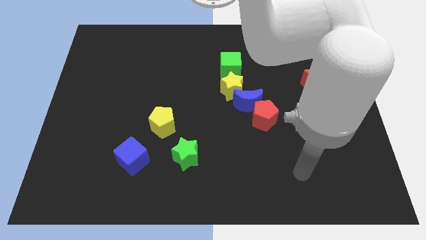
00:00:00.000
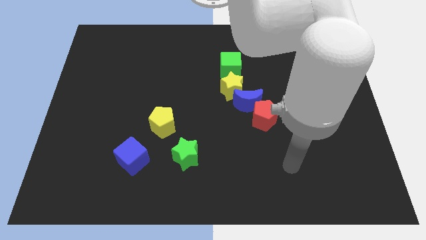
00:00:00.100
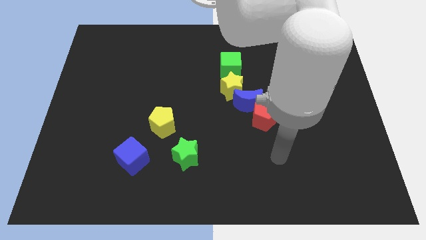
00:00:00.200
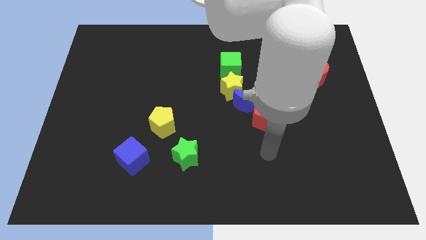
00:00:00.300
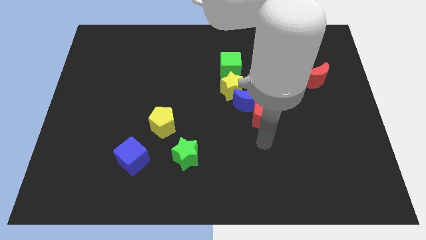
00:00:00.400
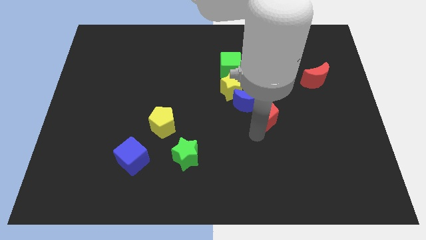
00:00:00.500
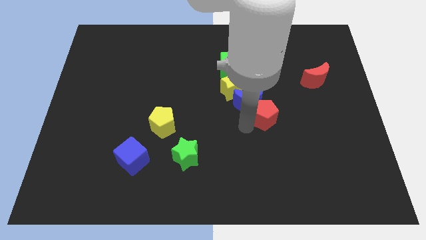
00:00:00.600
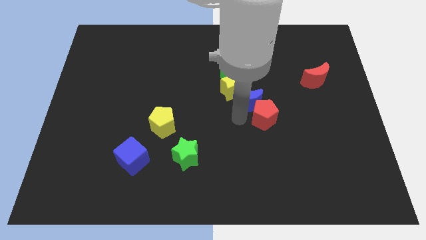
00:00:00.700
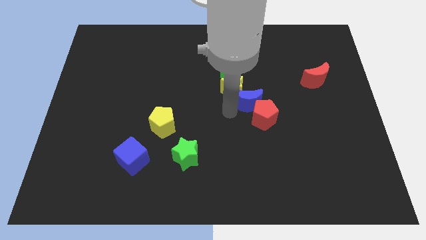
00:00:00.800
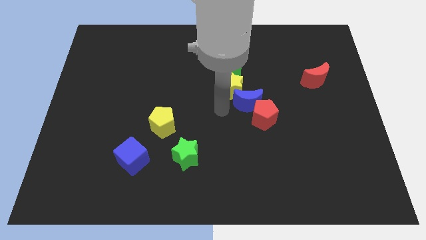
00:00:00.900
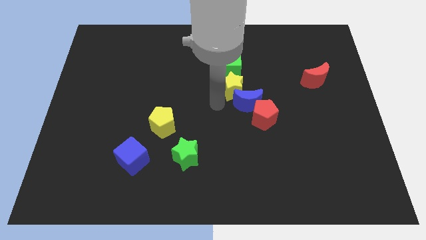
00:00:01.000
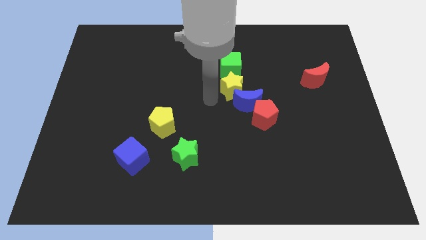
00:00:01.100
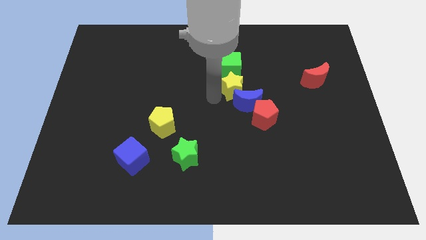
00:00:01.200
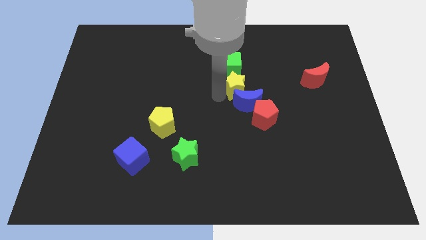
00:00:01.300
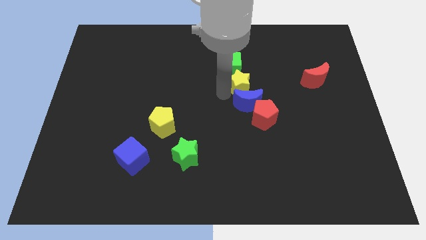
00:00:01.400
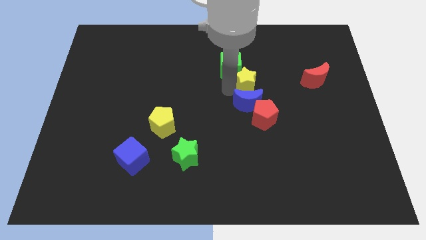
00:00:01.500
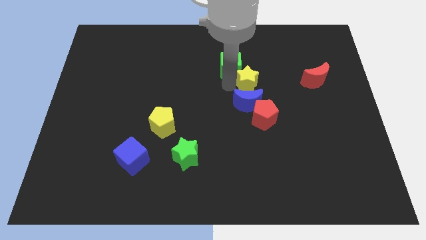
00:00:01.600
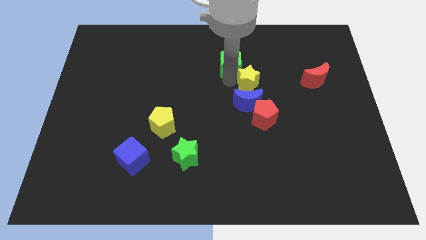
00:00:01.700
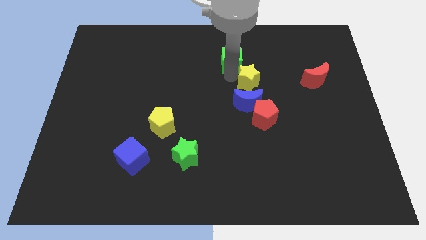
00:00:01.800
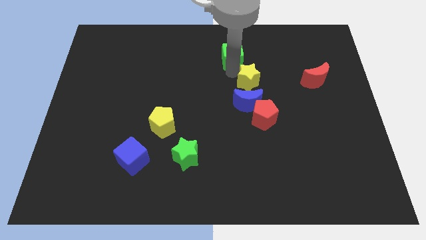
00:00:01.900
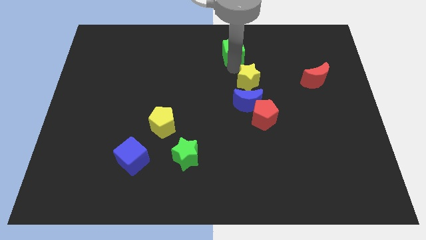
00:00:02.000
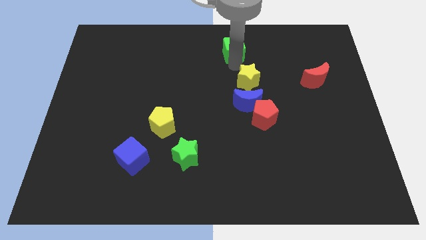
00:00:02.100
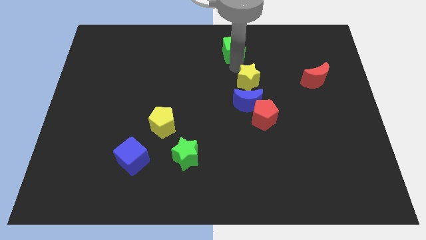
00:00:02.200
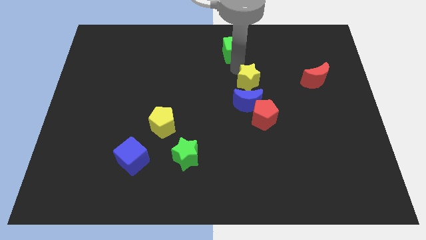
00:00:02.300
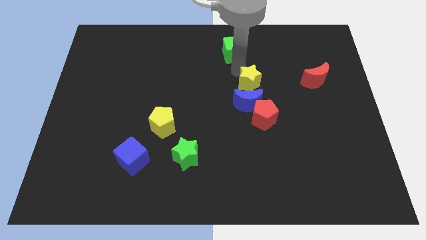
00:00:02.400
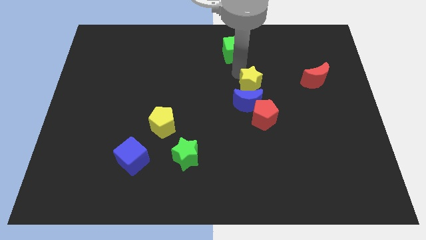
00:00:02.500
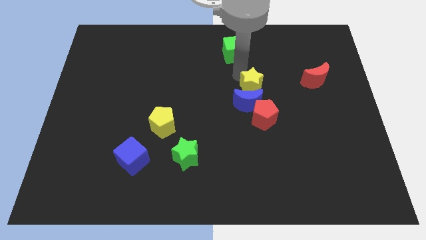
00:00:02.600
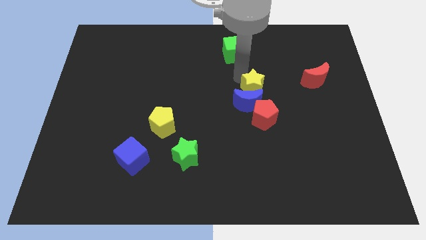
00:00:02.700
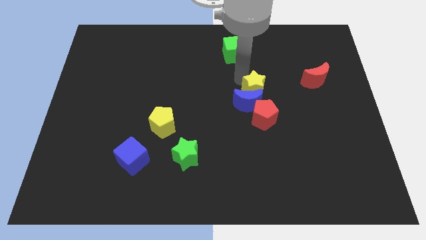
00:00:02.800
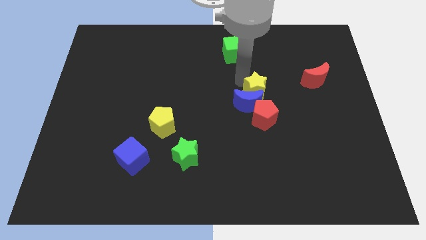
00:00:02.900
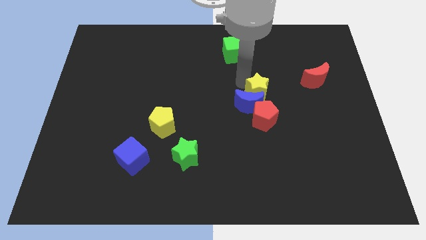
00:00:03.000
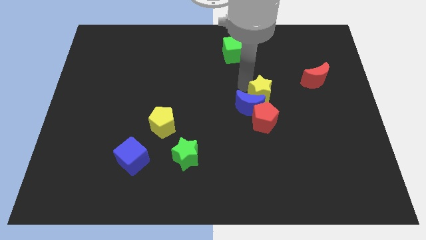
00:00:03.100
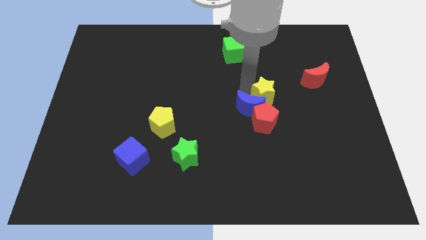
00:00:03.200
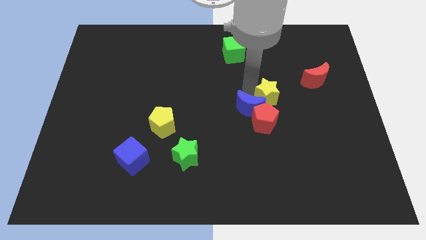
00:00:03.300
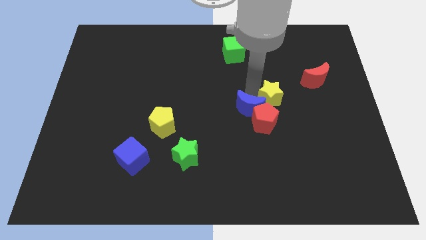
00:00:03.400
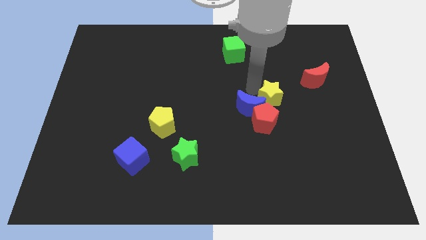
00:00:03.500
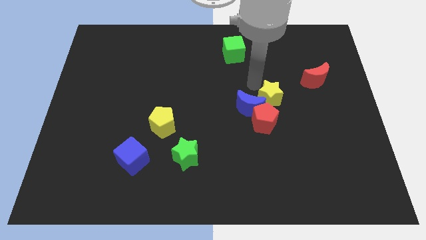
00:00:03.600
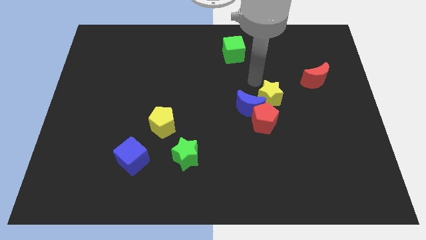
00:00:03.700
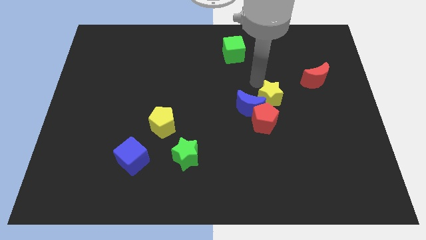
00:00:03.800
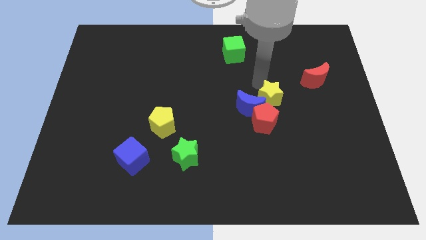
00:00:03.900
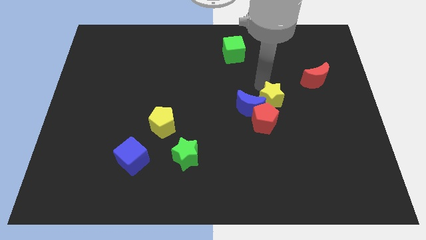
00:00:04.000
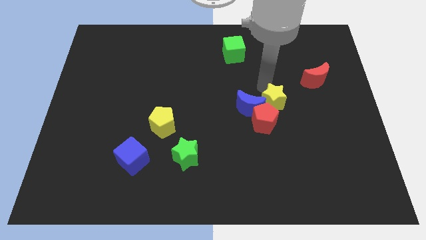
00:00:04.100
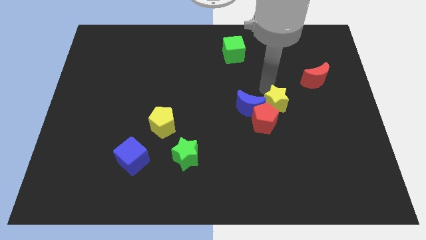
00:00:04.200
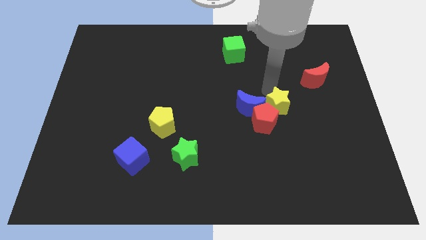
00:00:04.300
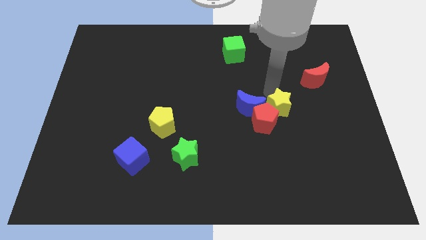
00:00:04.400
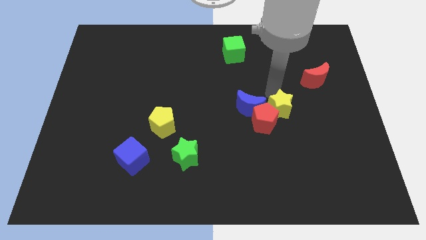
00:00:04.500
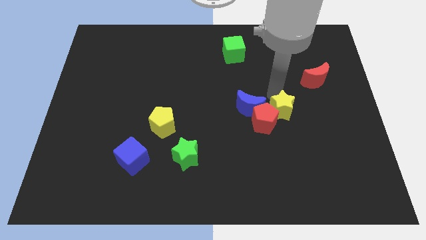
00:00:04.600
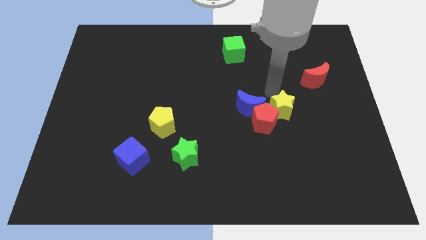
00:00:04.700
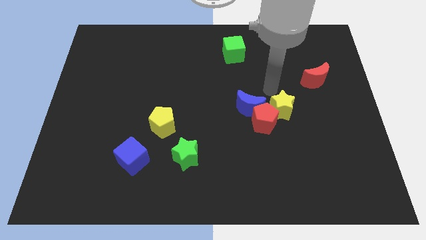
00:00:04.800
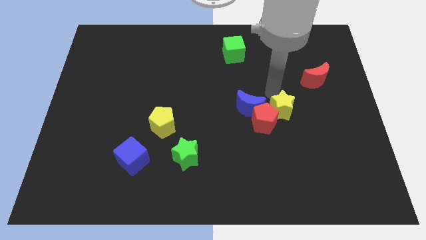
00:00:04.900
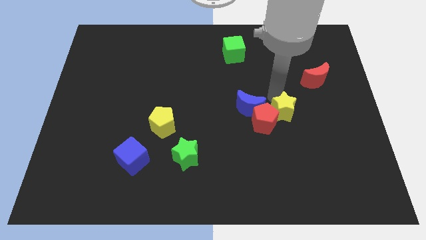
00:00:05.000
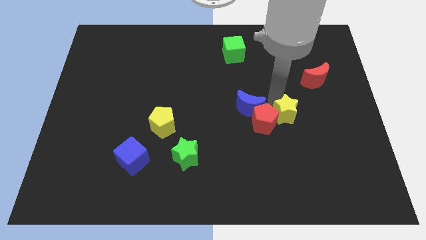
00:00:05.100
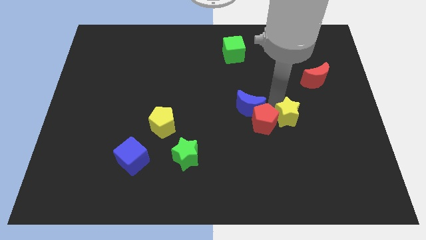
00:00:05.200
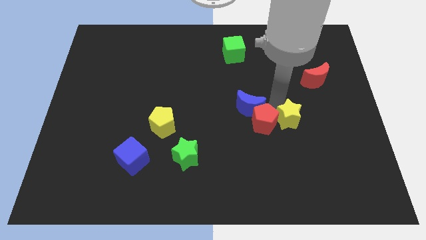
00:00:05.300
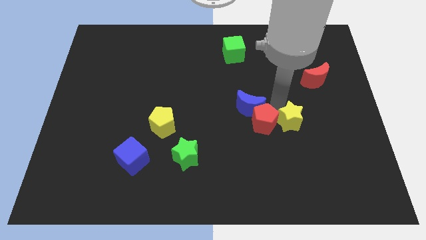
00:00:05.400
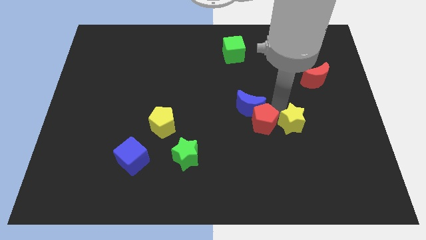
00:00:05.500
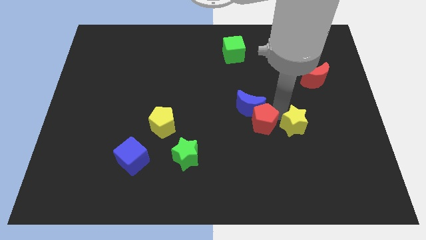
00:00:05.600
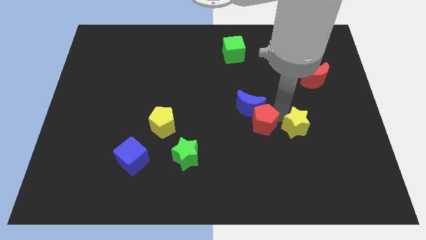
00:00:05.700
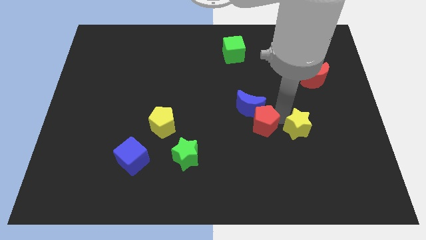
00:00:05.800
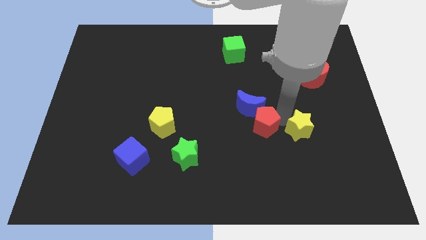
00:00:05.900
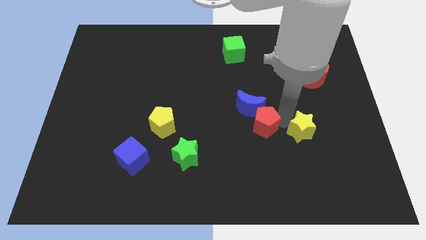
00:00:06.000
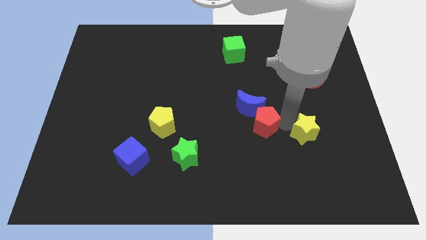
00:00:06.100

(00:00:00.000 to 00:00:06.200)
move the yellow star diagonally downwards and to the right

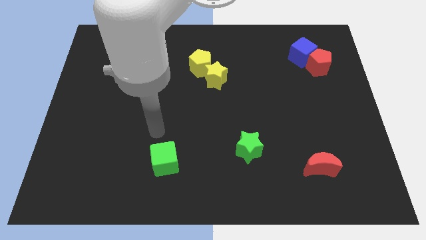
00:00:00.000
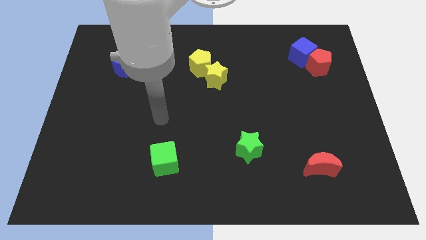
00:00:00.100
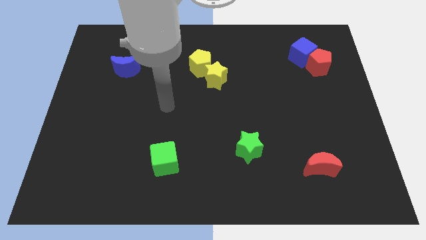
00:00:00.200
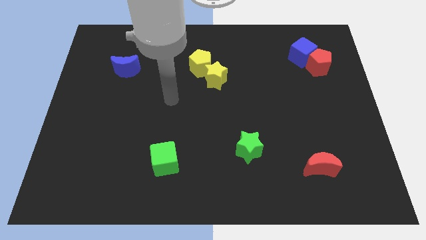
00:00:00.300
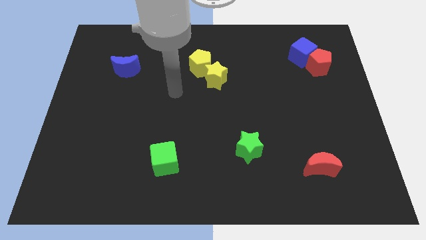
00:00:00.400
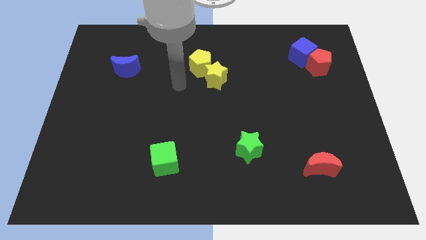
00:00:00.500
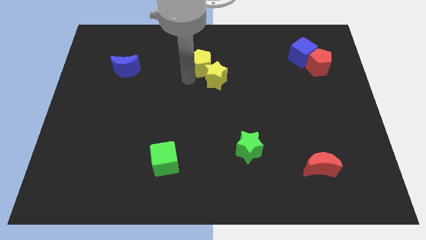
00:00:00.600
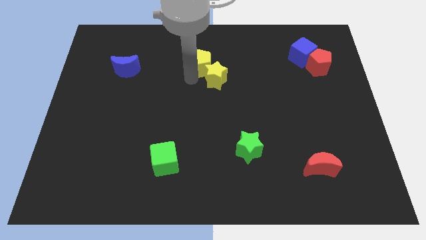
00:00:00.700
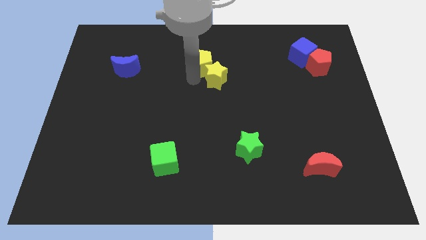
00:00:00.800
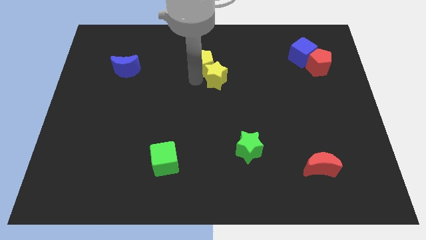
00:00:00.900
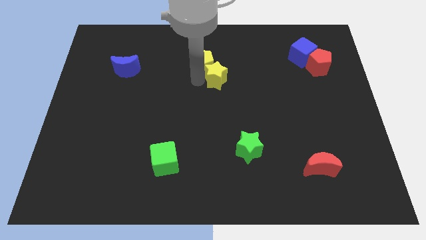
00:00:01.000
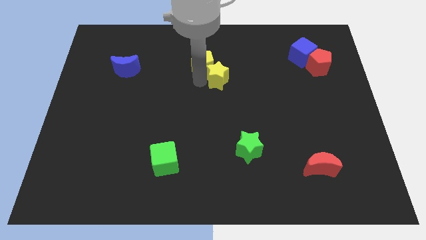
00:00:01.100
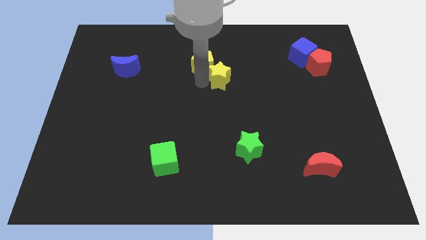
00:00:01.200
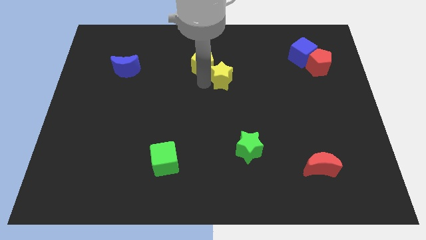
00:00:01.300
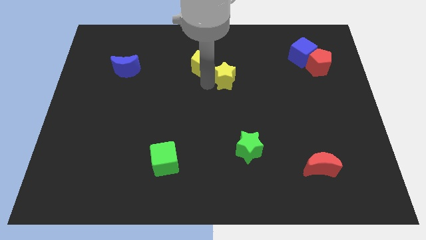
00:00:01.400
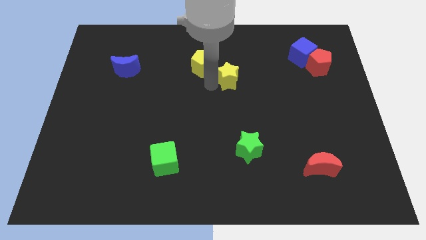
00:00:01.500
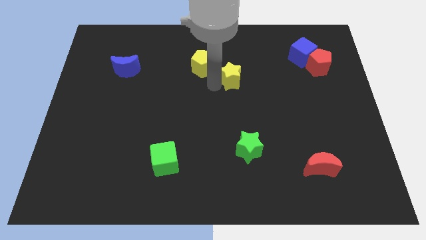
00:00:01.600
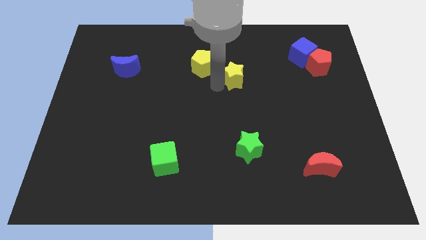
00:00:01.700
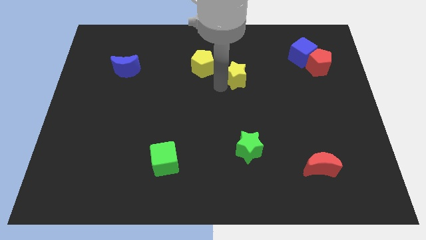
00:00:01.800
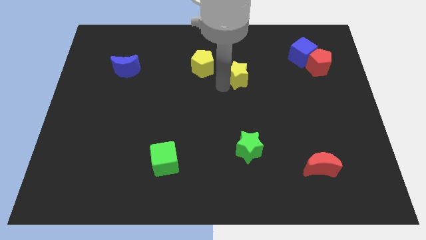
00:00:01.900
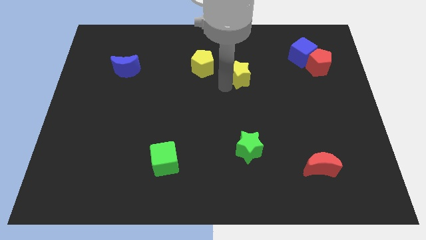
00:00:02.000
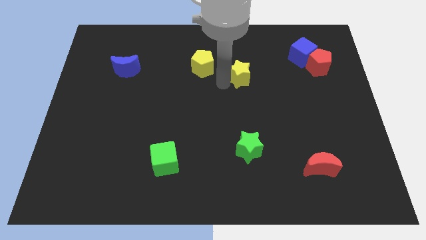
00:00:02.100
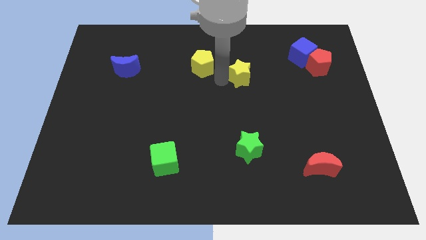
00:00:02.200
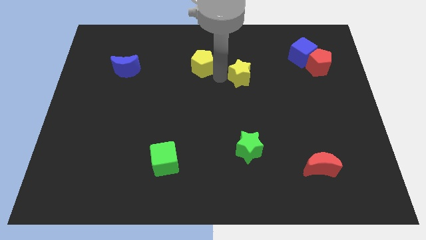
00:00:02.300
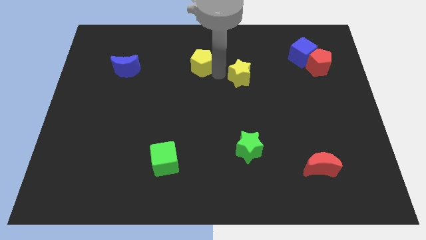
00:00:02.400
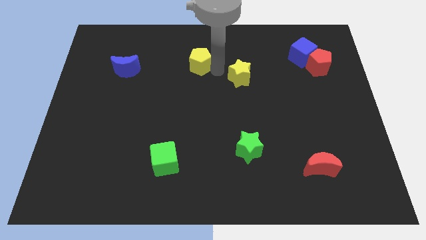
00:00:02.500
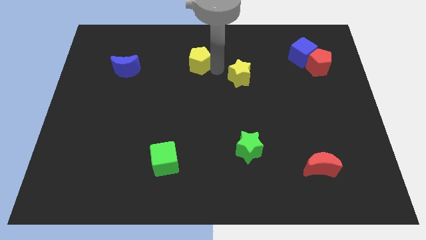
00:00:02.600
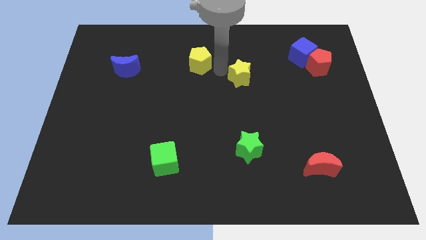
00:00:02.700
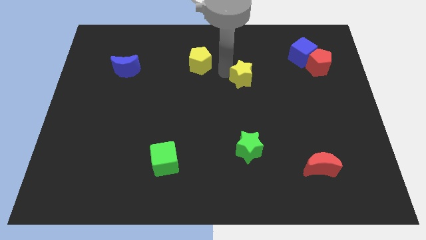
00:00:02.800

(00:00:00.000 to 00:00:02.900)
move the yellow star a bit right
